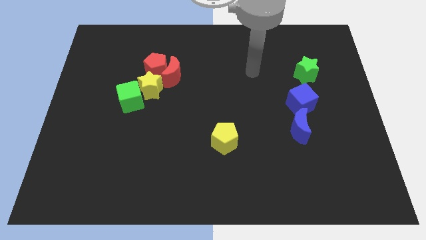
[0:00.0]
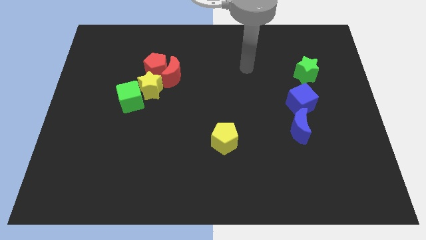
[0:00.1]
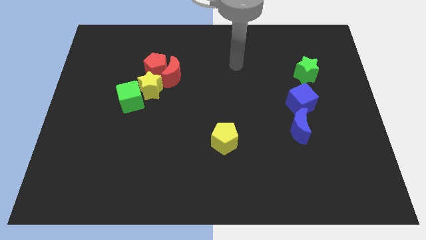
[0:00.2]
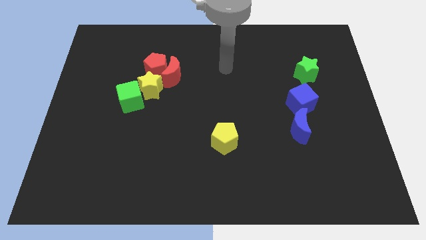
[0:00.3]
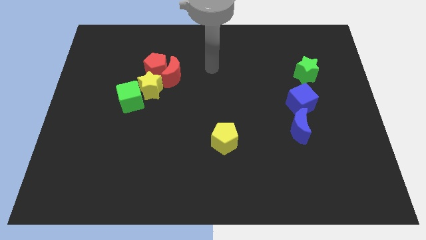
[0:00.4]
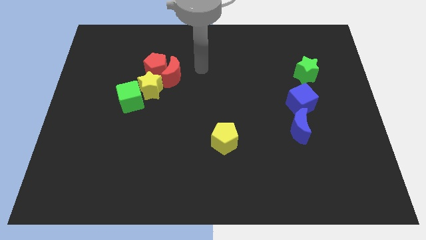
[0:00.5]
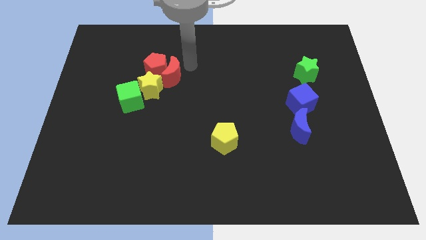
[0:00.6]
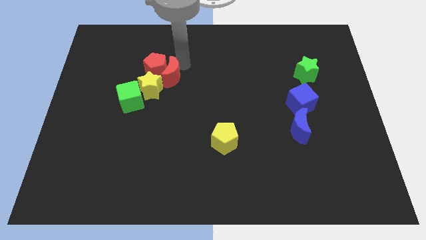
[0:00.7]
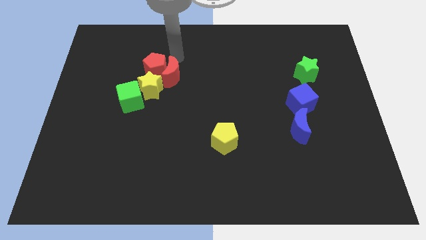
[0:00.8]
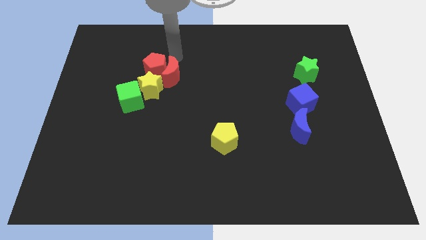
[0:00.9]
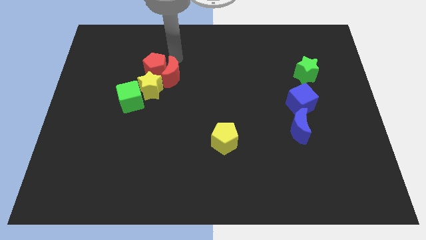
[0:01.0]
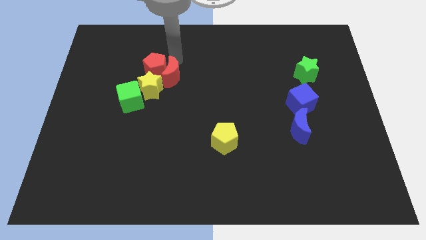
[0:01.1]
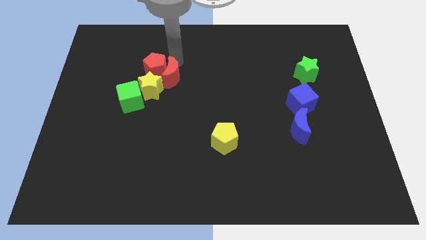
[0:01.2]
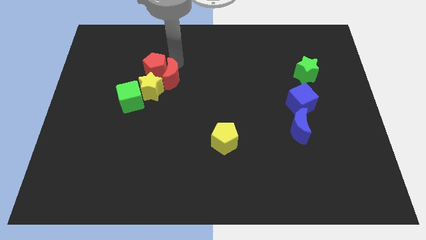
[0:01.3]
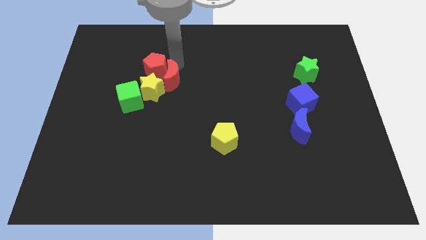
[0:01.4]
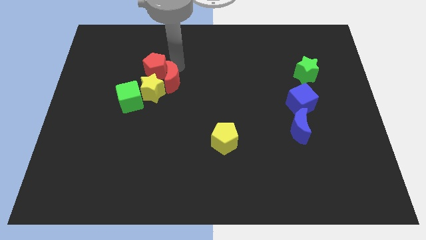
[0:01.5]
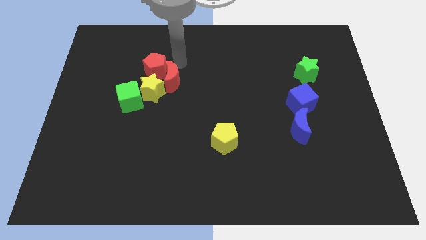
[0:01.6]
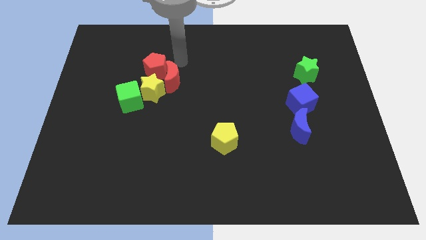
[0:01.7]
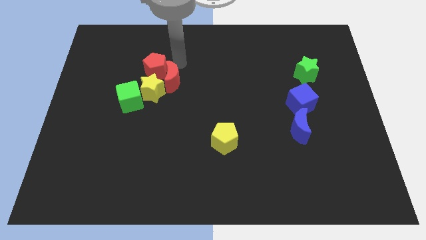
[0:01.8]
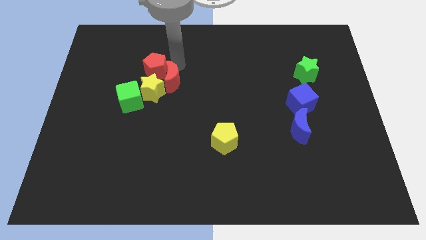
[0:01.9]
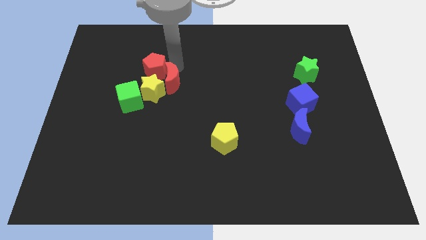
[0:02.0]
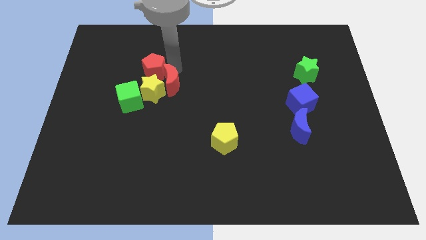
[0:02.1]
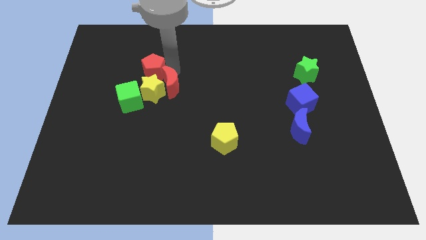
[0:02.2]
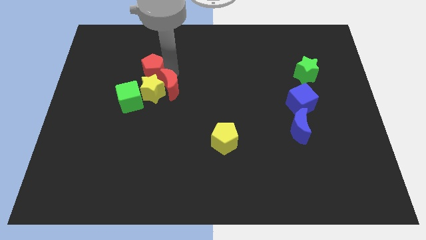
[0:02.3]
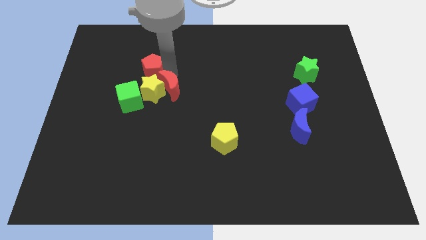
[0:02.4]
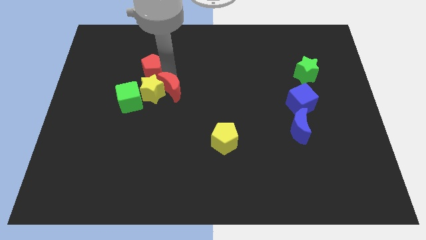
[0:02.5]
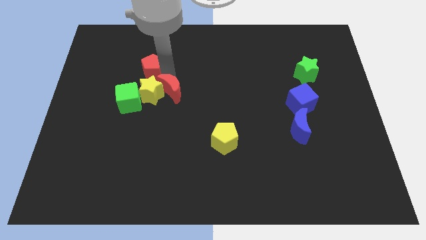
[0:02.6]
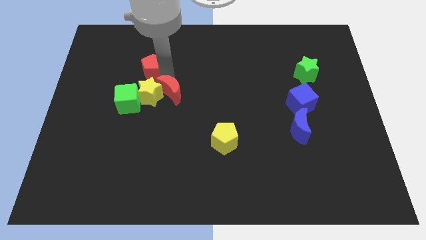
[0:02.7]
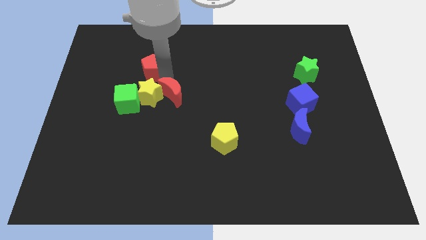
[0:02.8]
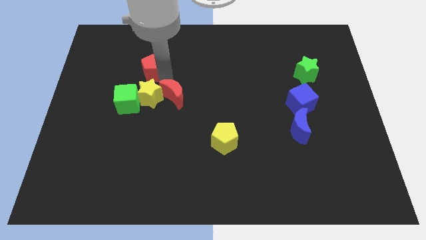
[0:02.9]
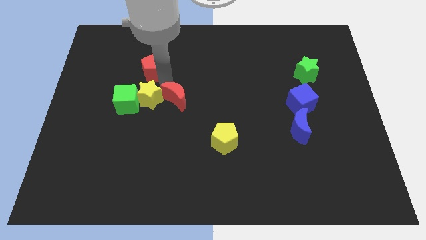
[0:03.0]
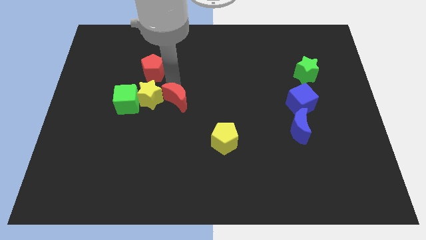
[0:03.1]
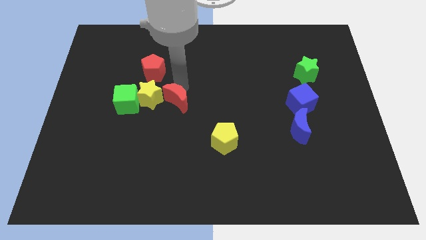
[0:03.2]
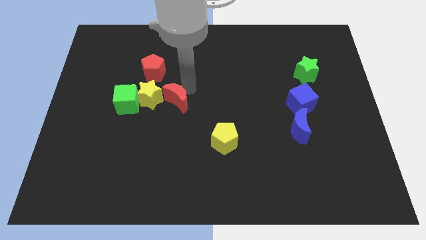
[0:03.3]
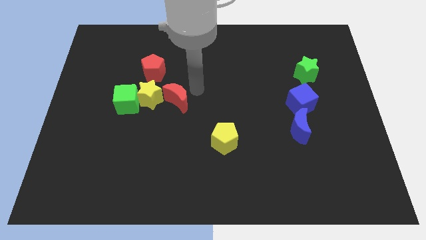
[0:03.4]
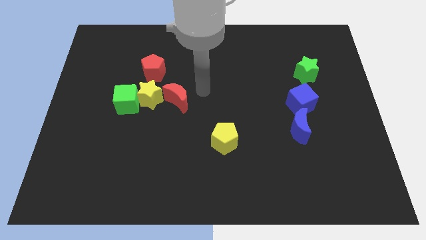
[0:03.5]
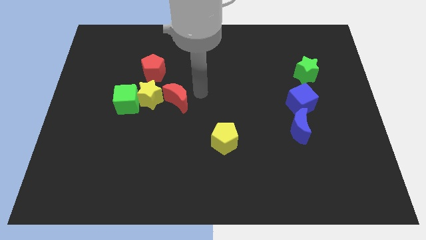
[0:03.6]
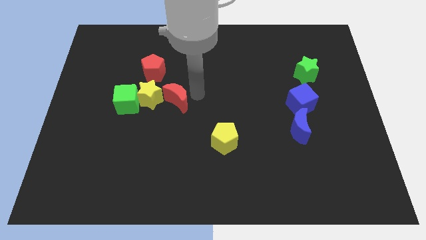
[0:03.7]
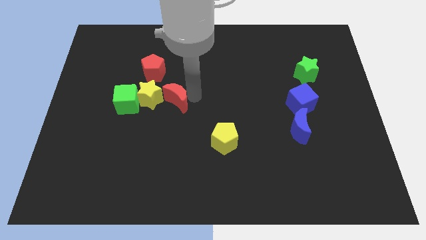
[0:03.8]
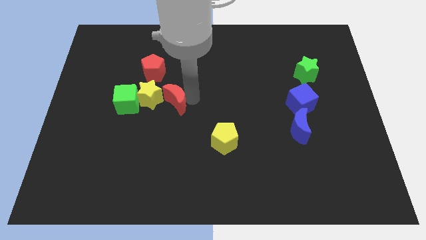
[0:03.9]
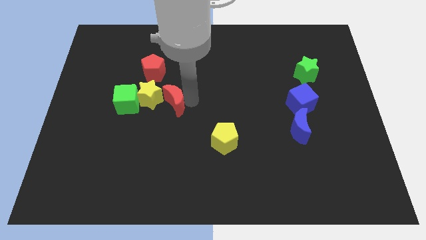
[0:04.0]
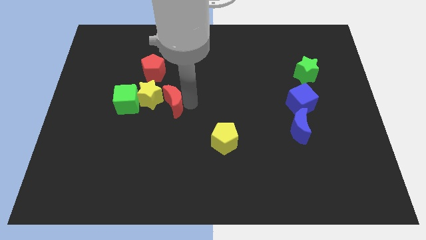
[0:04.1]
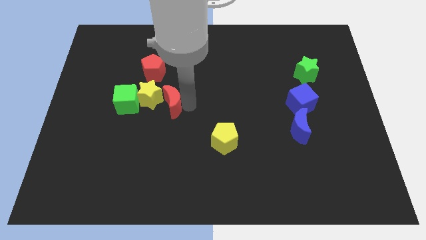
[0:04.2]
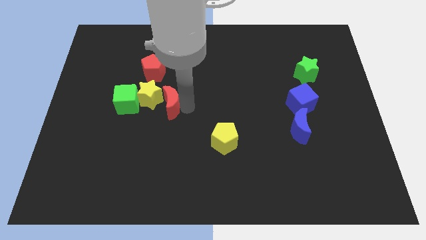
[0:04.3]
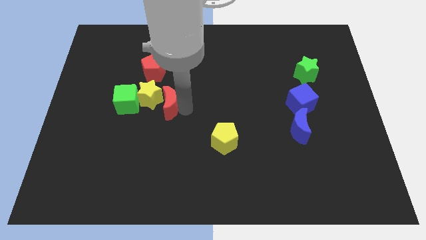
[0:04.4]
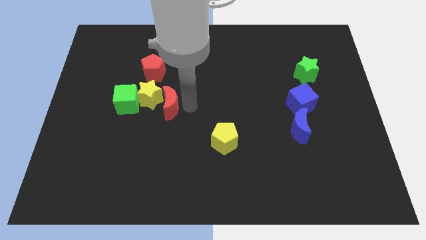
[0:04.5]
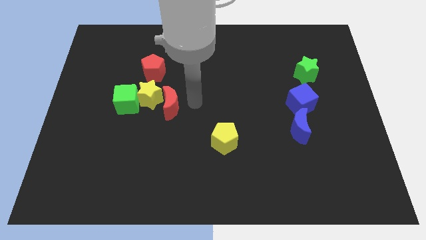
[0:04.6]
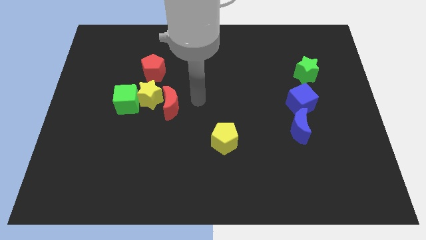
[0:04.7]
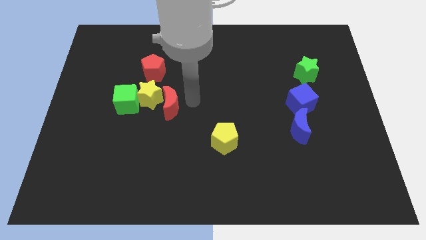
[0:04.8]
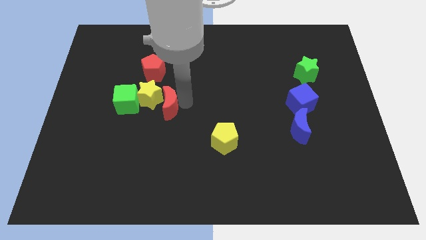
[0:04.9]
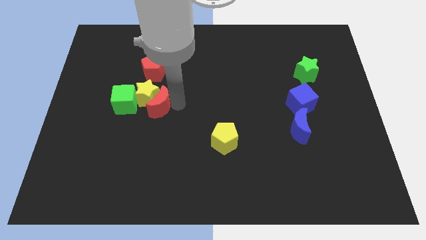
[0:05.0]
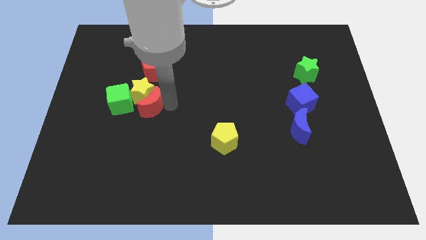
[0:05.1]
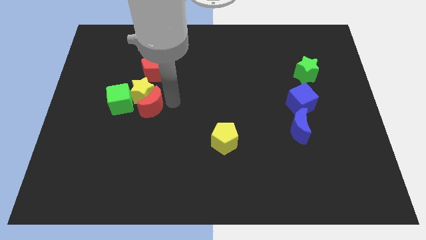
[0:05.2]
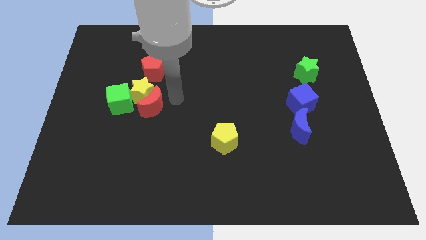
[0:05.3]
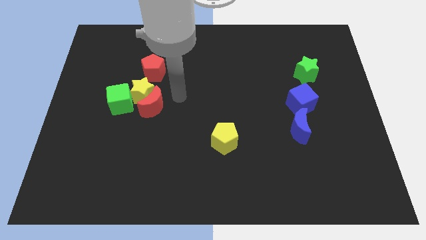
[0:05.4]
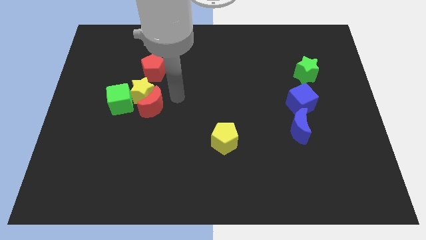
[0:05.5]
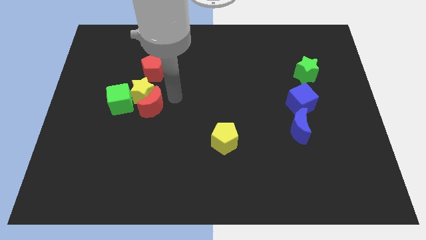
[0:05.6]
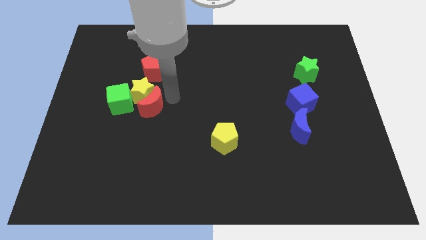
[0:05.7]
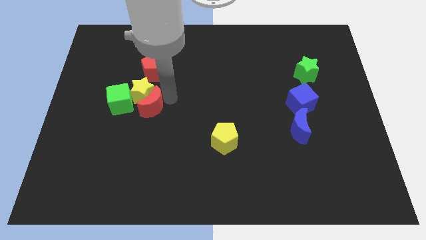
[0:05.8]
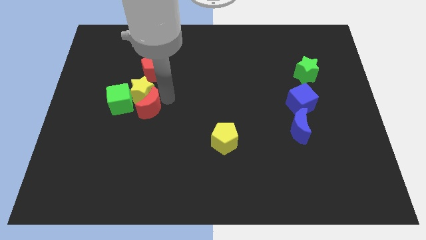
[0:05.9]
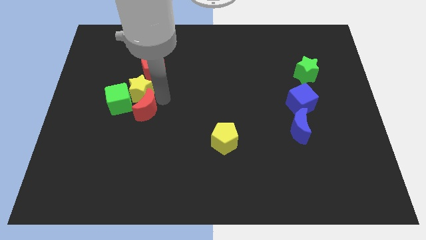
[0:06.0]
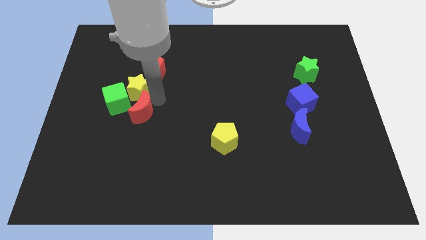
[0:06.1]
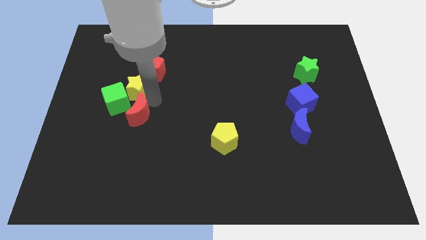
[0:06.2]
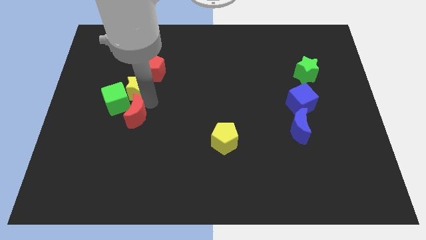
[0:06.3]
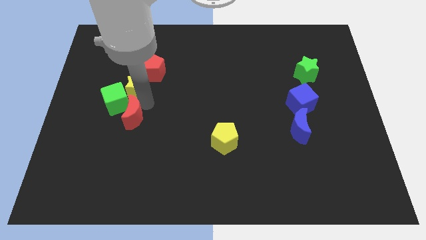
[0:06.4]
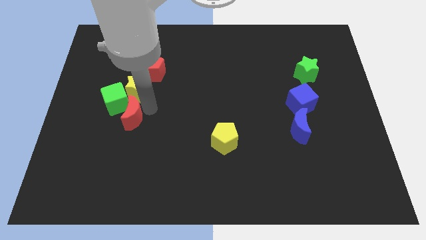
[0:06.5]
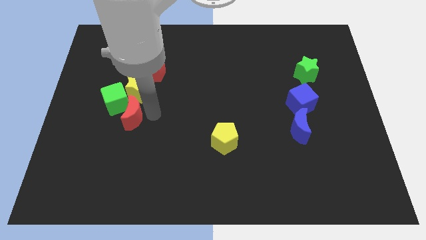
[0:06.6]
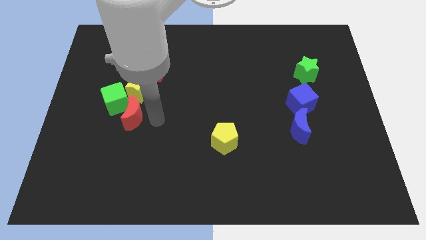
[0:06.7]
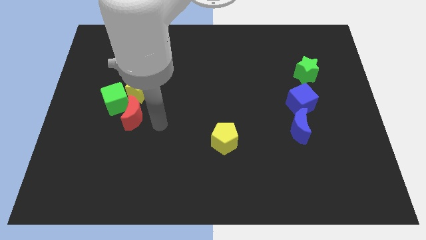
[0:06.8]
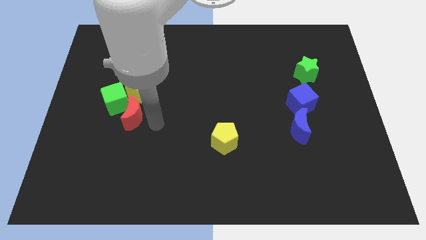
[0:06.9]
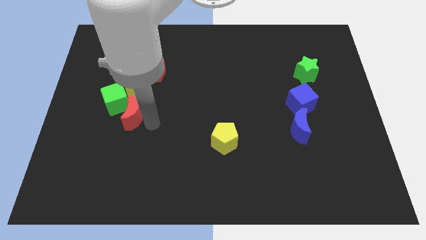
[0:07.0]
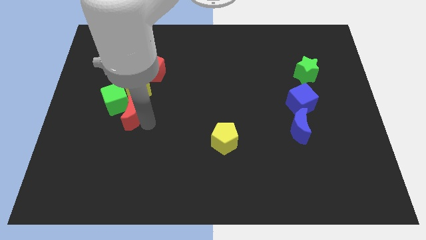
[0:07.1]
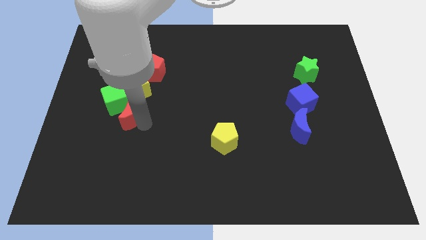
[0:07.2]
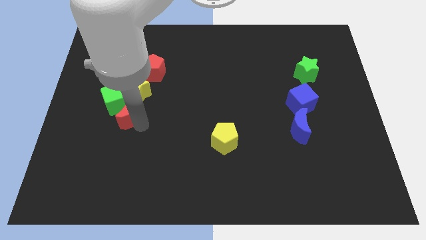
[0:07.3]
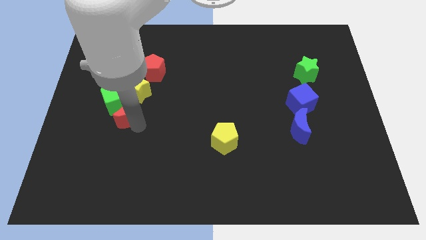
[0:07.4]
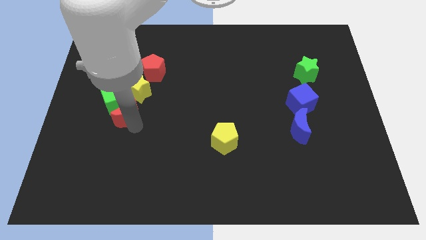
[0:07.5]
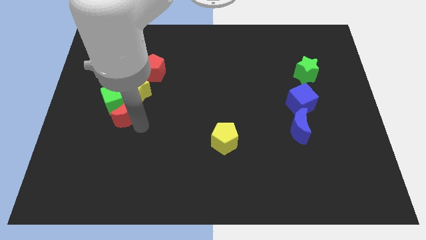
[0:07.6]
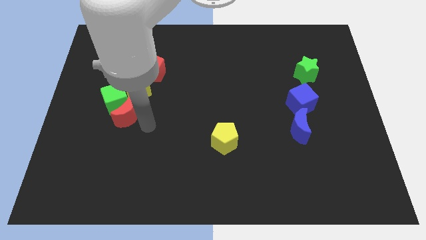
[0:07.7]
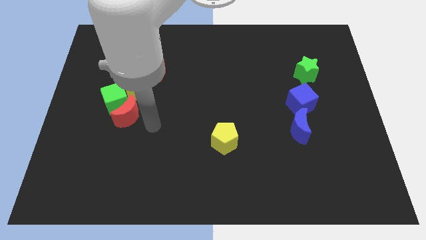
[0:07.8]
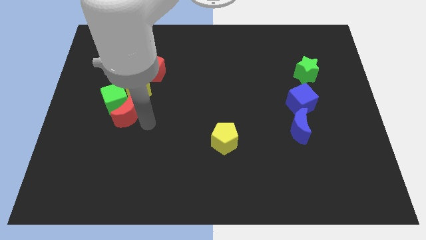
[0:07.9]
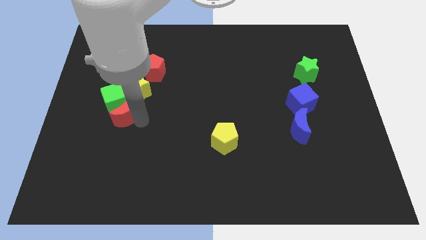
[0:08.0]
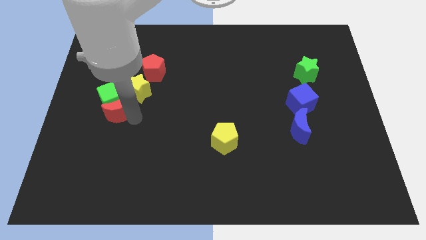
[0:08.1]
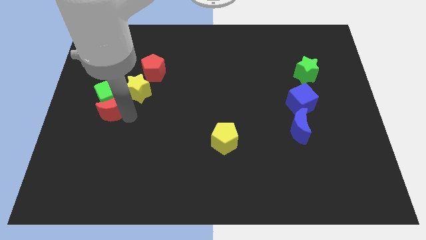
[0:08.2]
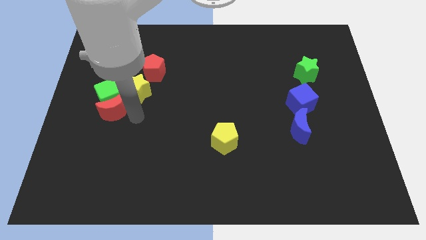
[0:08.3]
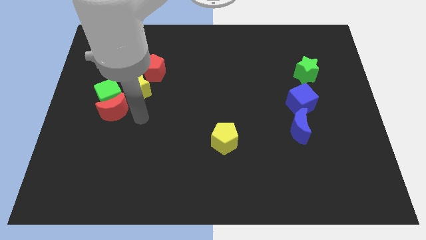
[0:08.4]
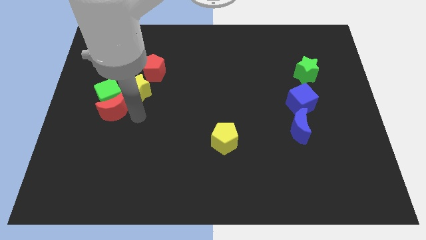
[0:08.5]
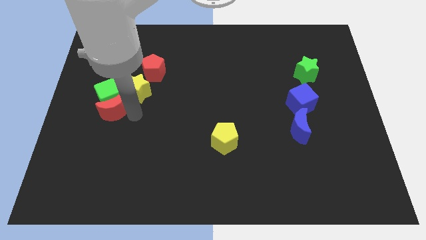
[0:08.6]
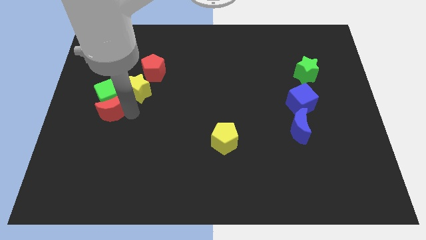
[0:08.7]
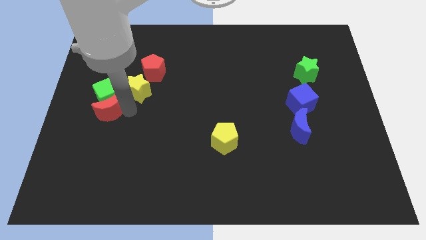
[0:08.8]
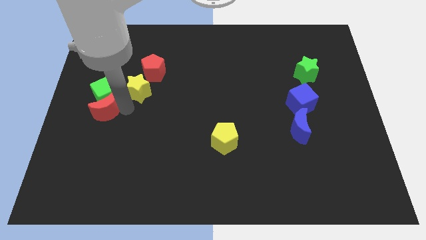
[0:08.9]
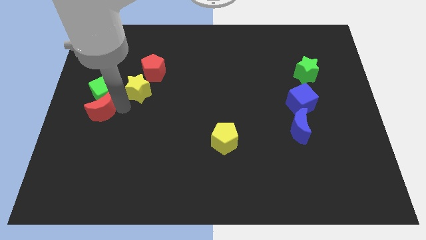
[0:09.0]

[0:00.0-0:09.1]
put the red moon to the left side
